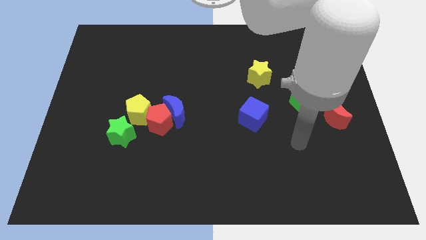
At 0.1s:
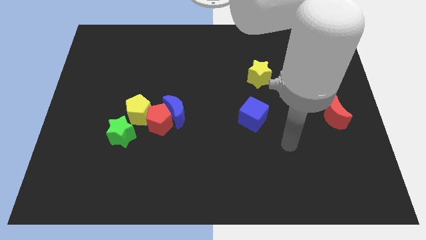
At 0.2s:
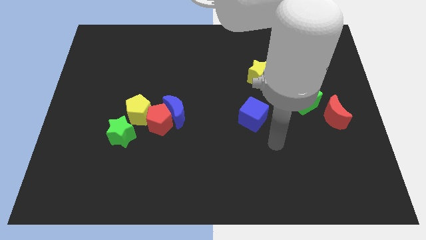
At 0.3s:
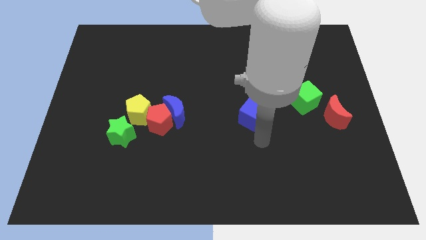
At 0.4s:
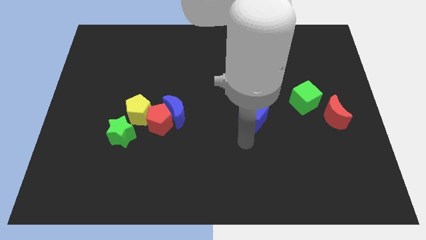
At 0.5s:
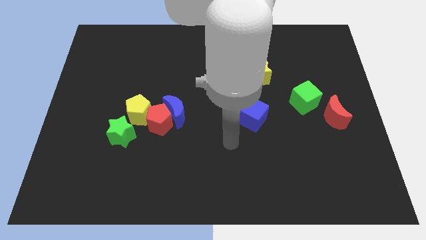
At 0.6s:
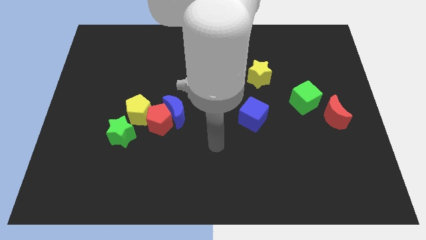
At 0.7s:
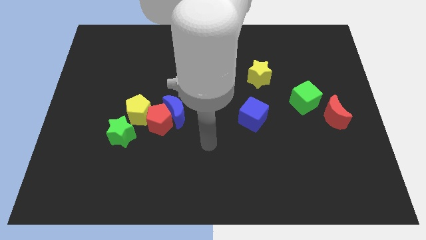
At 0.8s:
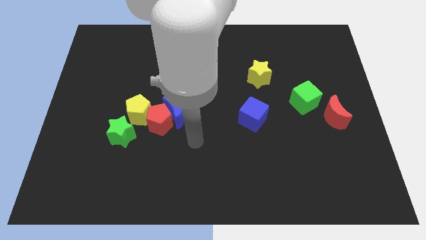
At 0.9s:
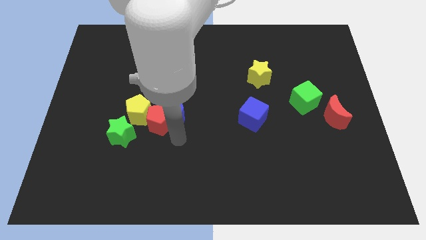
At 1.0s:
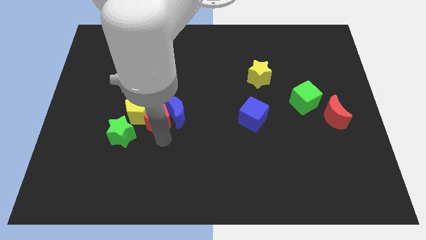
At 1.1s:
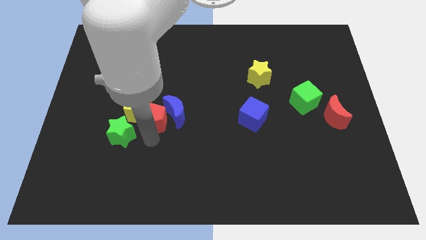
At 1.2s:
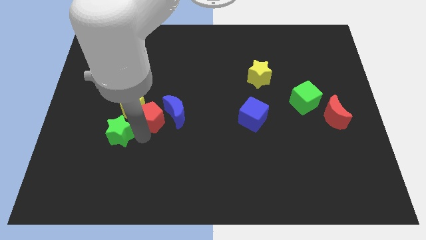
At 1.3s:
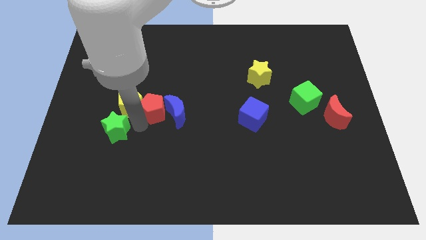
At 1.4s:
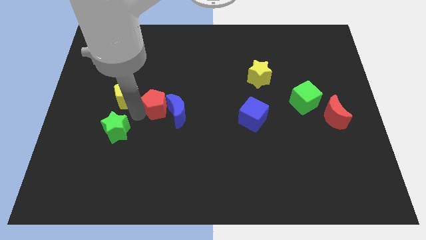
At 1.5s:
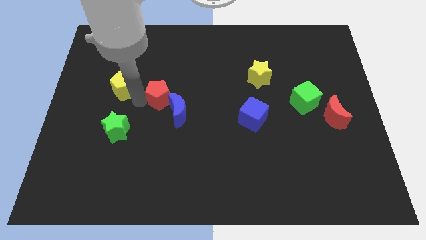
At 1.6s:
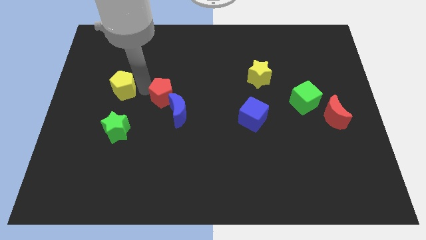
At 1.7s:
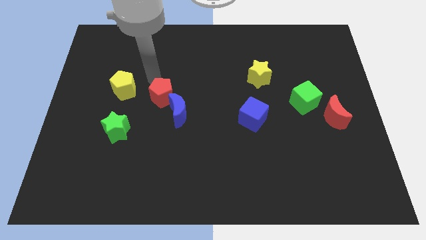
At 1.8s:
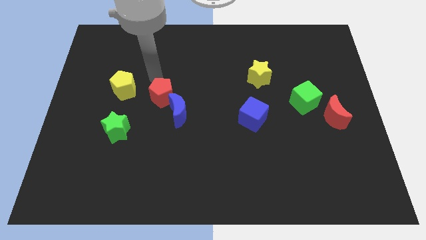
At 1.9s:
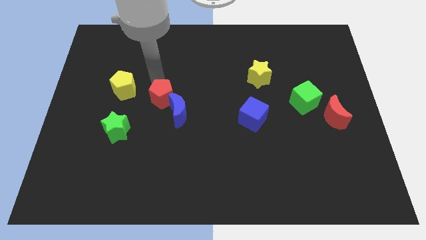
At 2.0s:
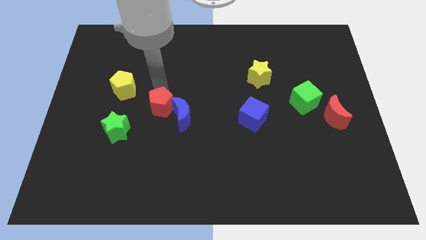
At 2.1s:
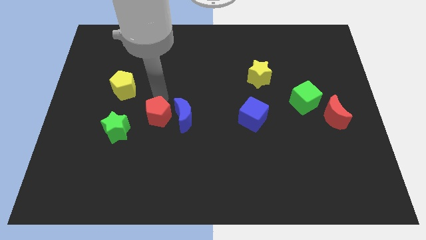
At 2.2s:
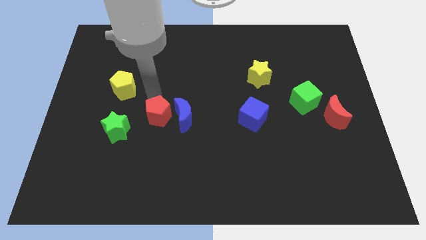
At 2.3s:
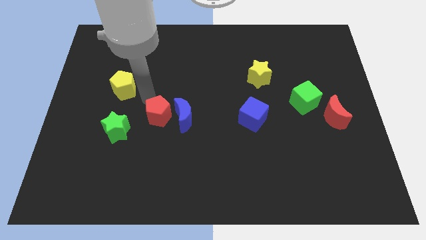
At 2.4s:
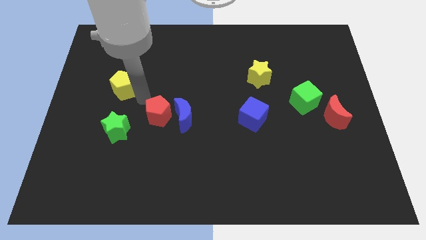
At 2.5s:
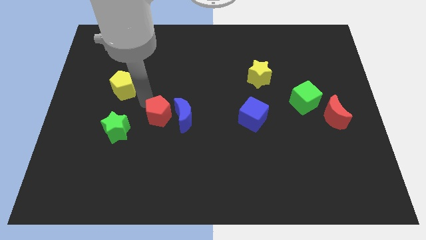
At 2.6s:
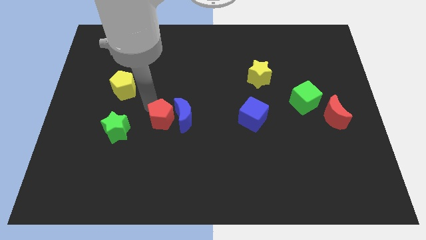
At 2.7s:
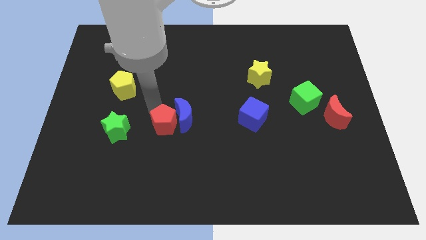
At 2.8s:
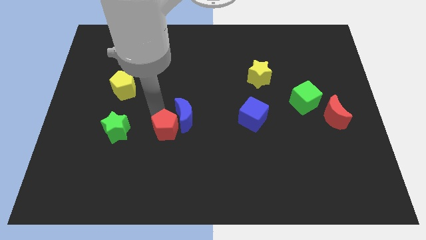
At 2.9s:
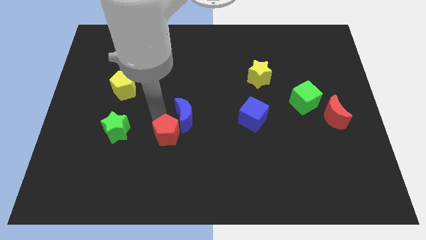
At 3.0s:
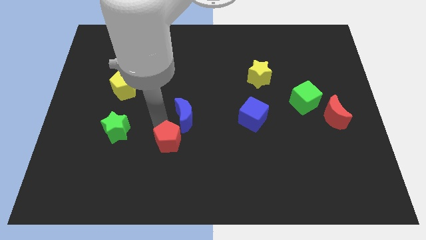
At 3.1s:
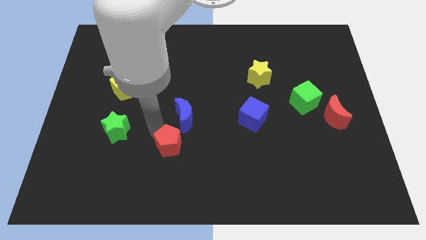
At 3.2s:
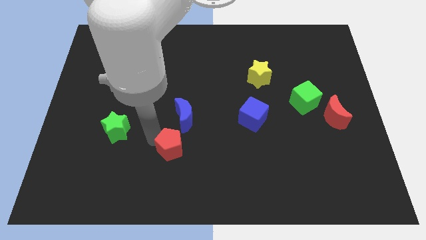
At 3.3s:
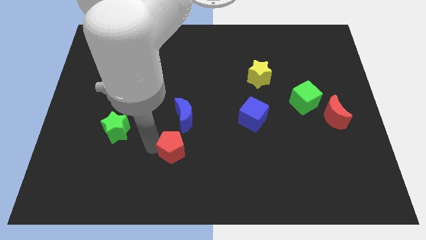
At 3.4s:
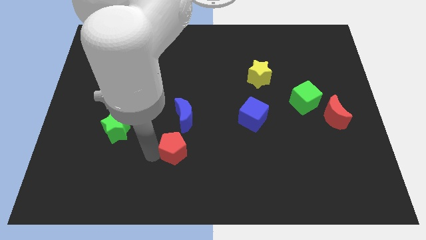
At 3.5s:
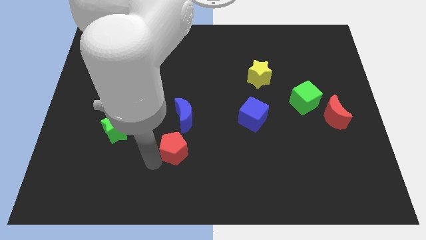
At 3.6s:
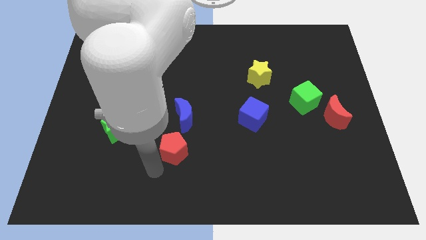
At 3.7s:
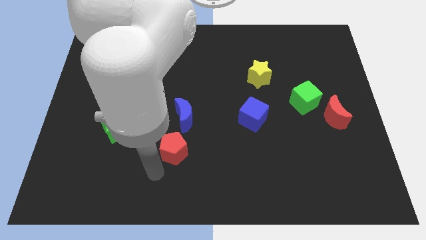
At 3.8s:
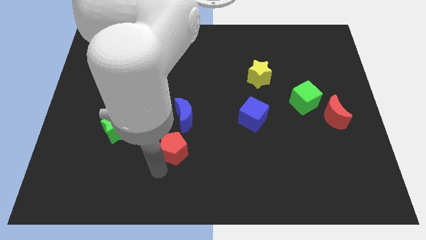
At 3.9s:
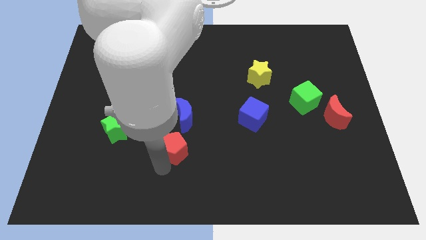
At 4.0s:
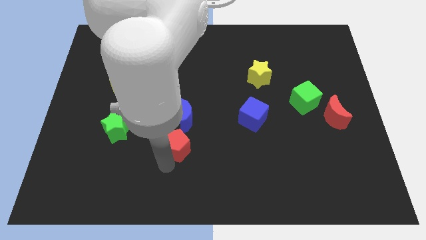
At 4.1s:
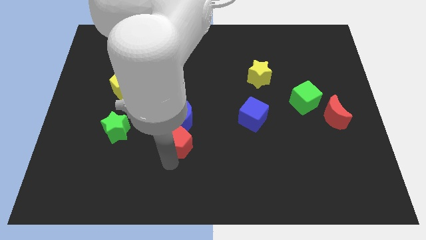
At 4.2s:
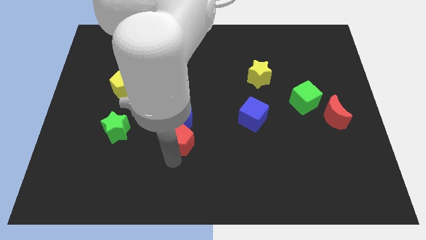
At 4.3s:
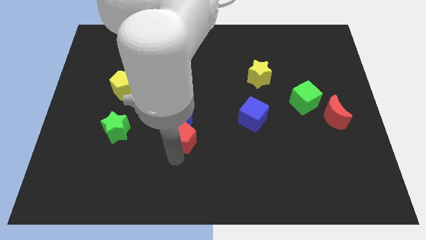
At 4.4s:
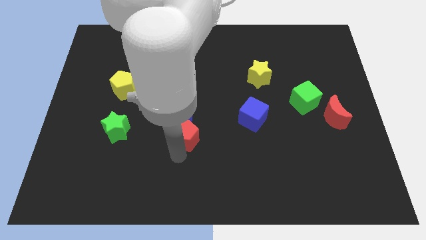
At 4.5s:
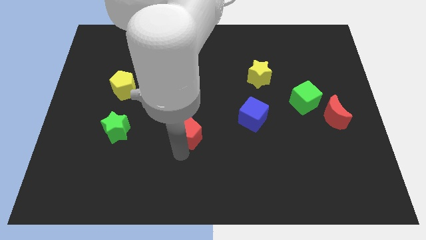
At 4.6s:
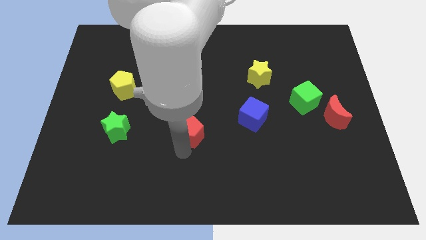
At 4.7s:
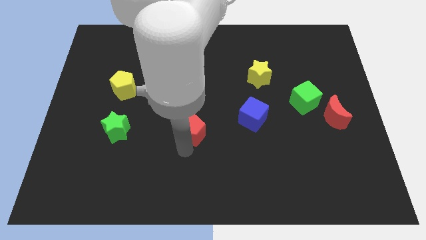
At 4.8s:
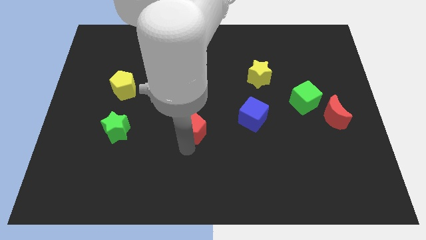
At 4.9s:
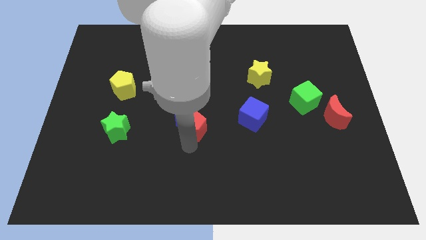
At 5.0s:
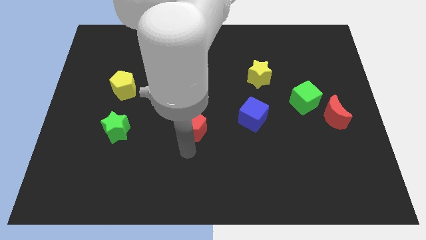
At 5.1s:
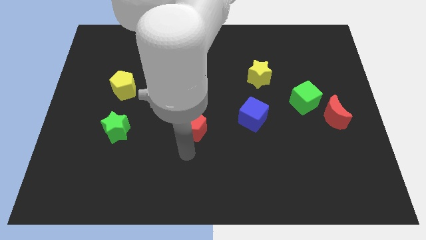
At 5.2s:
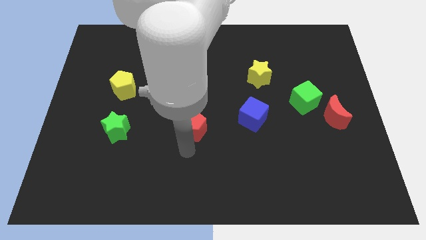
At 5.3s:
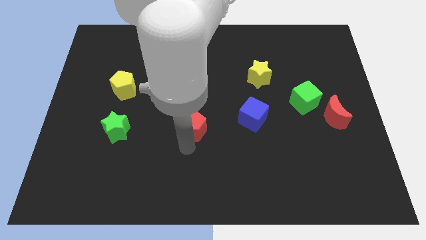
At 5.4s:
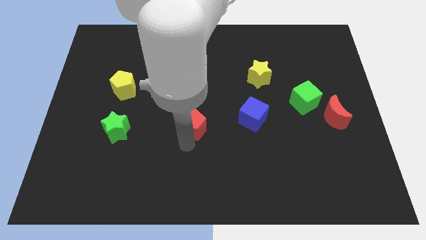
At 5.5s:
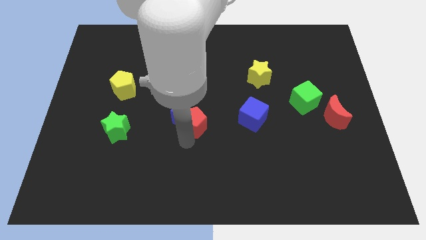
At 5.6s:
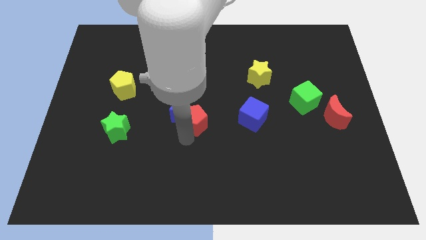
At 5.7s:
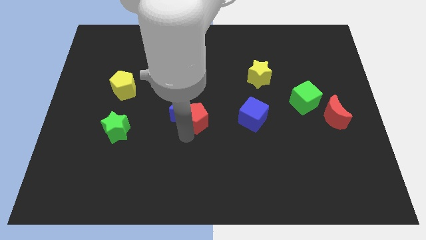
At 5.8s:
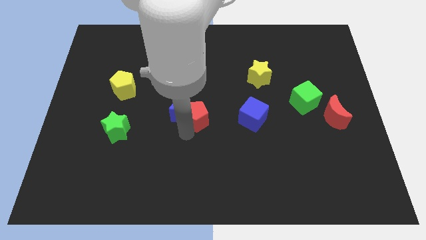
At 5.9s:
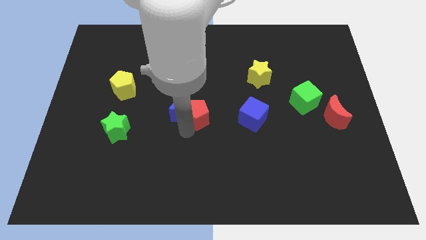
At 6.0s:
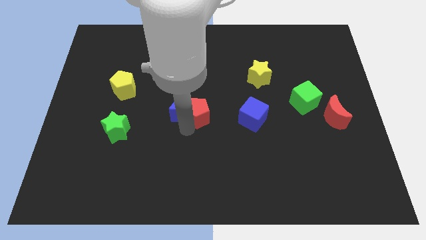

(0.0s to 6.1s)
move the red pentagon up and then to the right a little bit

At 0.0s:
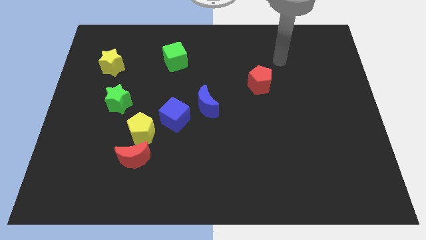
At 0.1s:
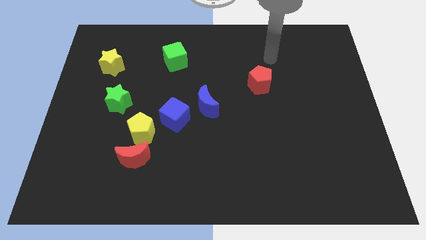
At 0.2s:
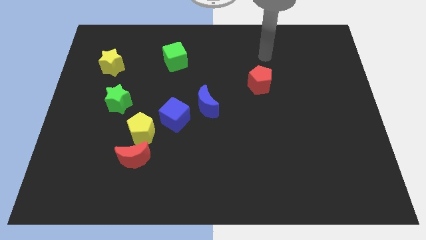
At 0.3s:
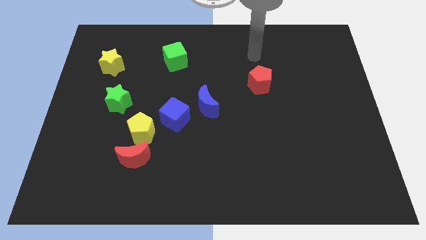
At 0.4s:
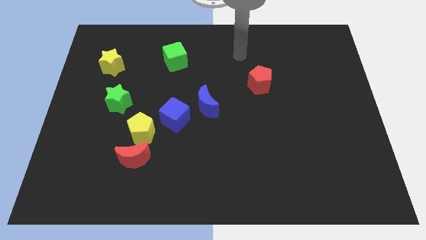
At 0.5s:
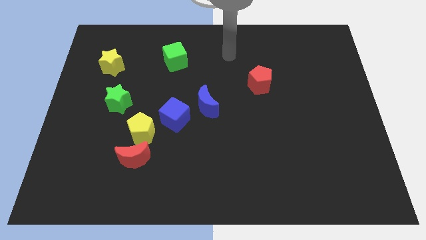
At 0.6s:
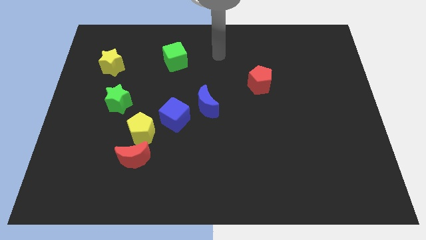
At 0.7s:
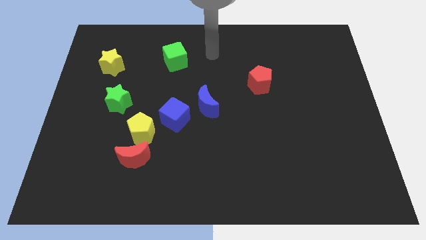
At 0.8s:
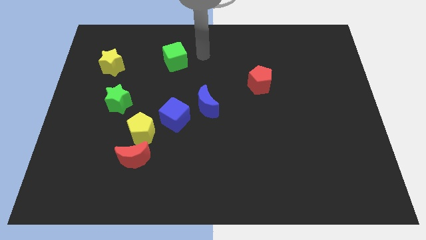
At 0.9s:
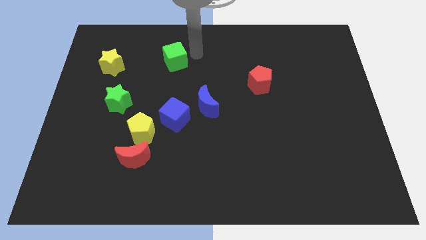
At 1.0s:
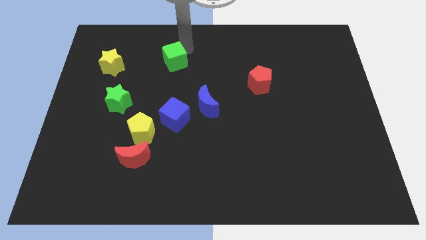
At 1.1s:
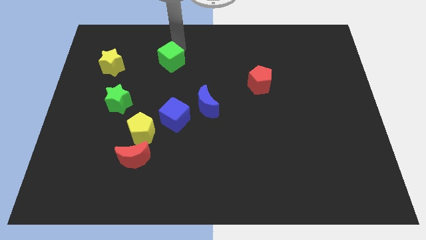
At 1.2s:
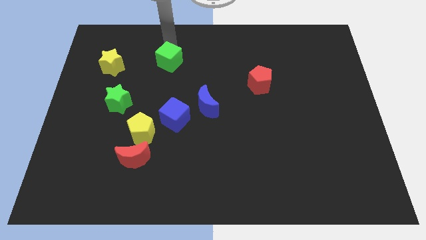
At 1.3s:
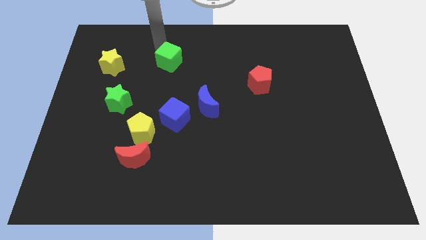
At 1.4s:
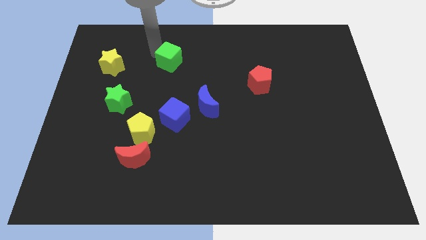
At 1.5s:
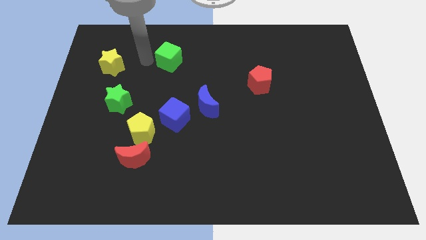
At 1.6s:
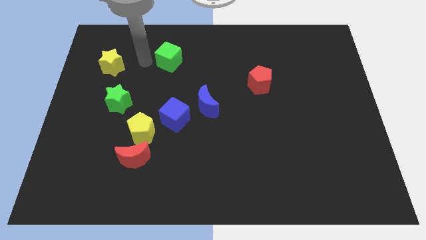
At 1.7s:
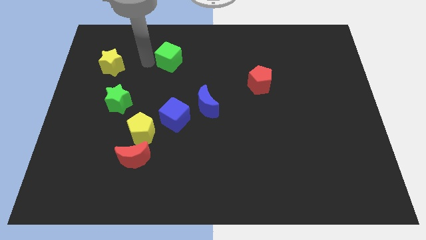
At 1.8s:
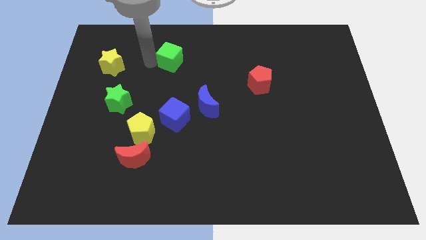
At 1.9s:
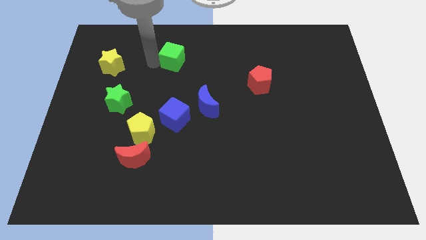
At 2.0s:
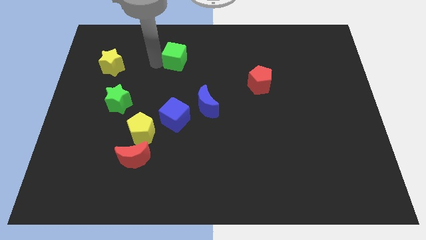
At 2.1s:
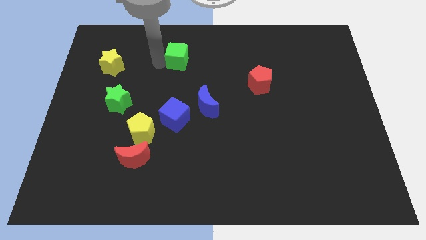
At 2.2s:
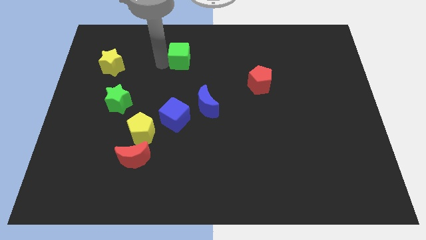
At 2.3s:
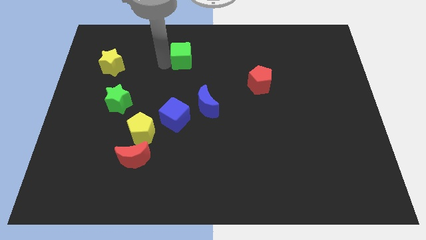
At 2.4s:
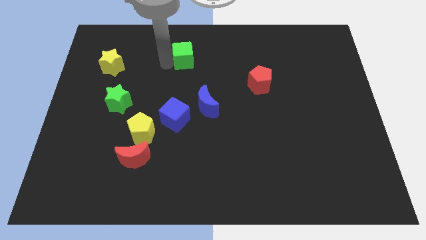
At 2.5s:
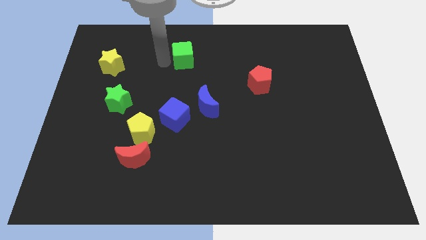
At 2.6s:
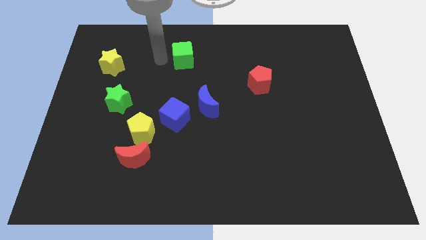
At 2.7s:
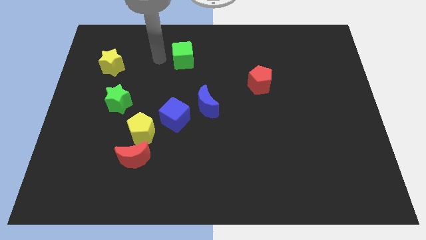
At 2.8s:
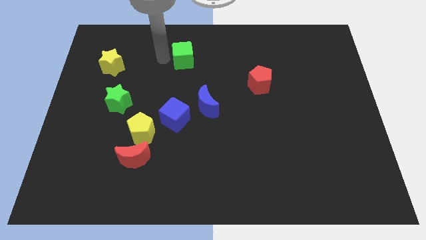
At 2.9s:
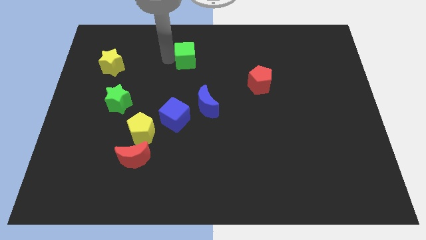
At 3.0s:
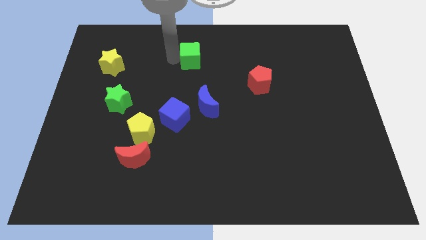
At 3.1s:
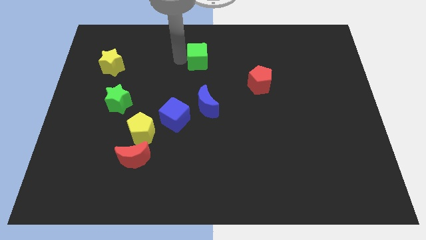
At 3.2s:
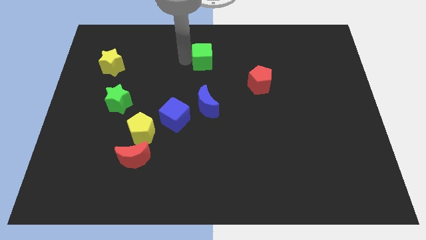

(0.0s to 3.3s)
slide the green cube right slightly
